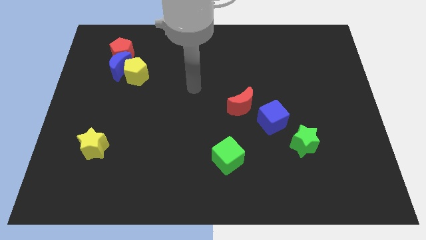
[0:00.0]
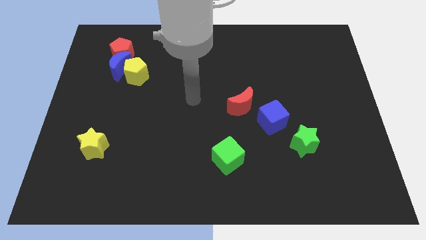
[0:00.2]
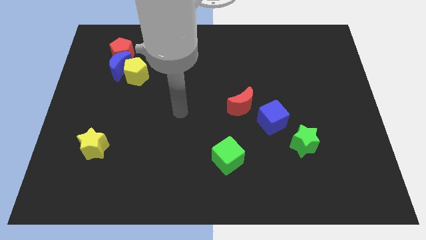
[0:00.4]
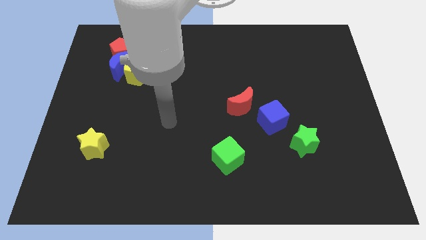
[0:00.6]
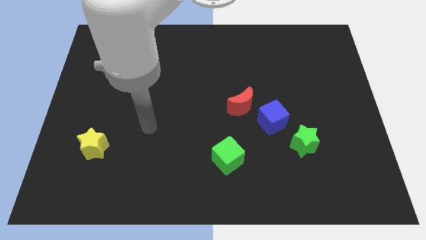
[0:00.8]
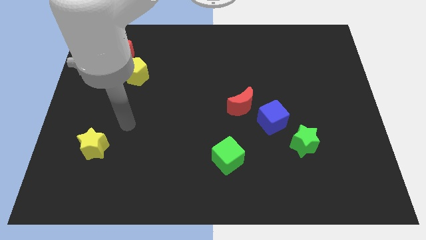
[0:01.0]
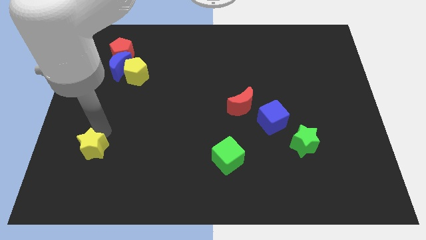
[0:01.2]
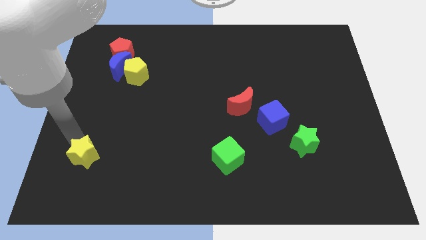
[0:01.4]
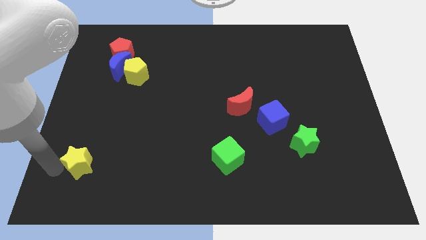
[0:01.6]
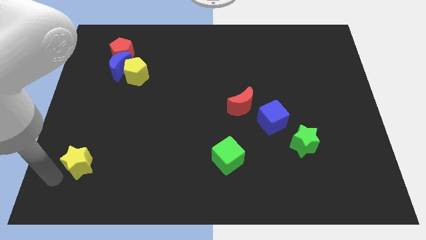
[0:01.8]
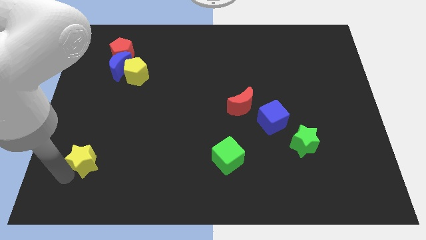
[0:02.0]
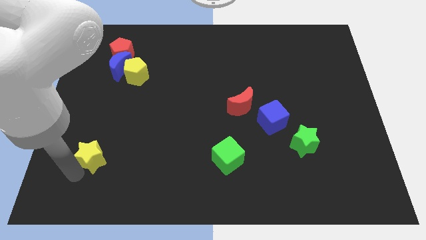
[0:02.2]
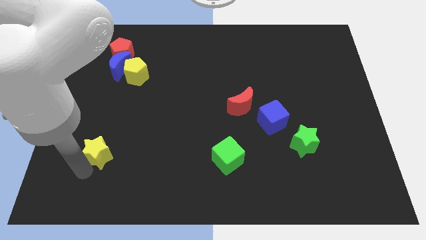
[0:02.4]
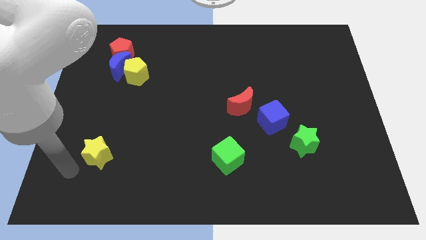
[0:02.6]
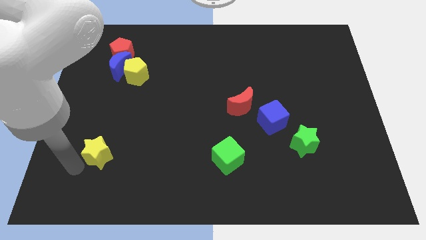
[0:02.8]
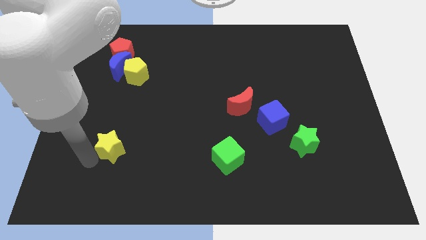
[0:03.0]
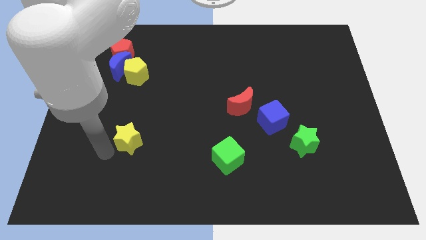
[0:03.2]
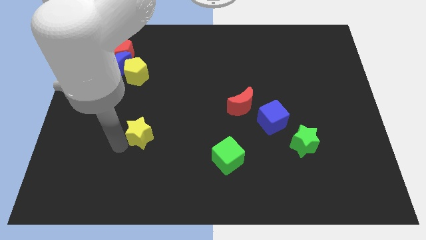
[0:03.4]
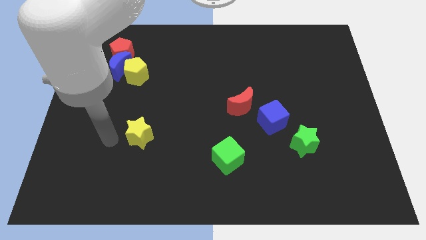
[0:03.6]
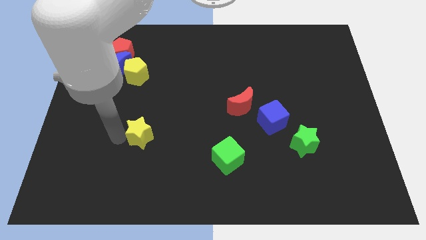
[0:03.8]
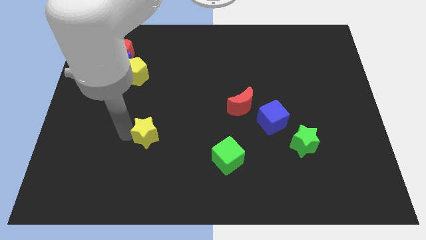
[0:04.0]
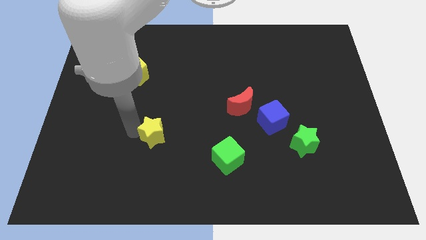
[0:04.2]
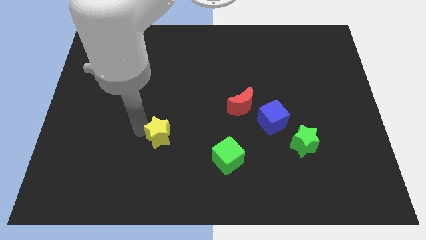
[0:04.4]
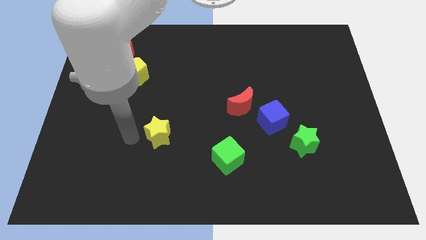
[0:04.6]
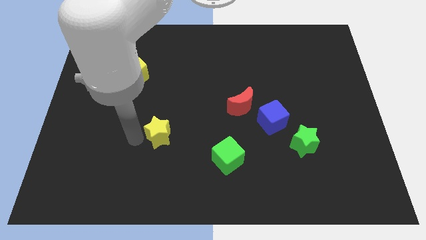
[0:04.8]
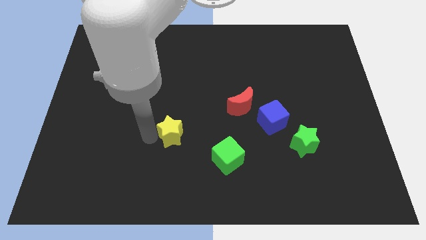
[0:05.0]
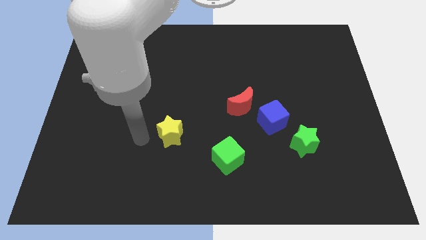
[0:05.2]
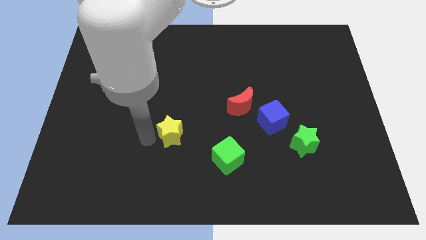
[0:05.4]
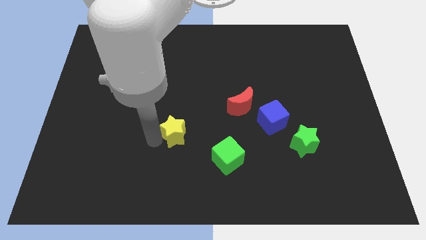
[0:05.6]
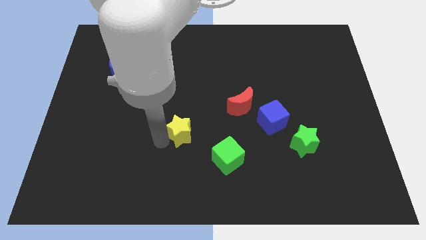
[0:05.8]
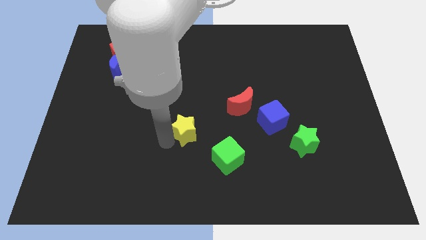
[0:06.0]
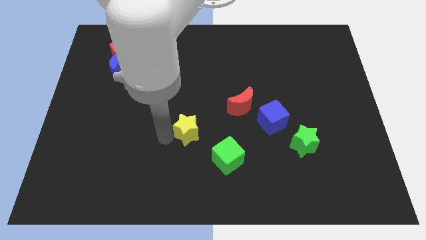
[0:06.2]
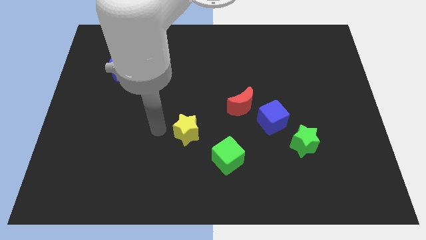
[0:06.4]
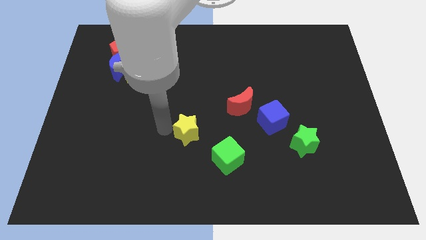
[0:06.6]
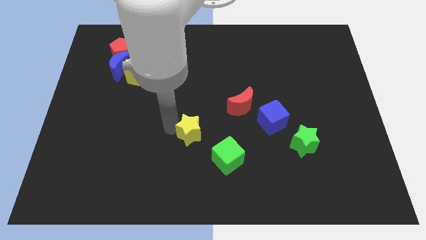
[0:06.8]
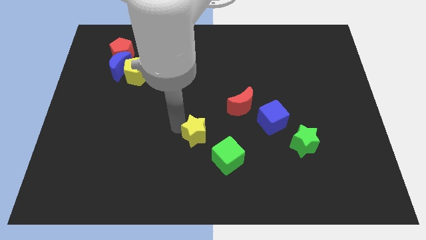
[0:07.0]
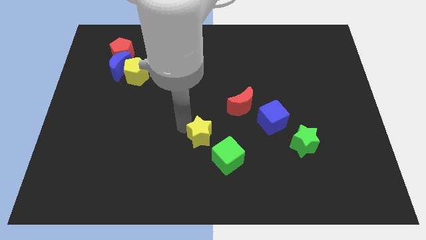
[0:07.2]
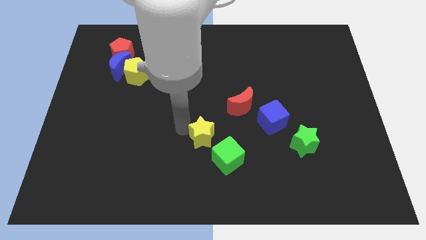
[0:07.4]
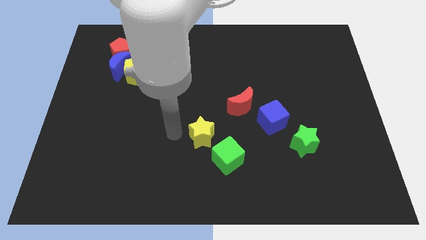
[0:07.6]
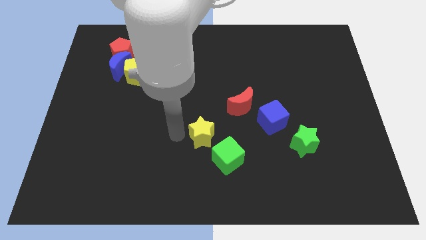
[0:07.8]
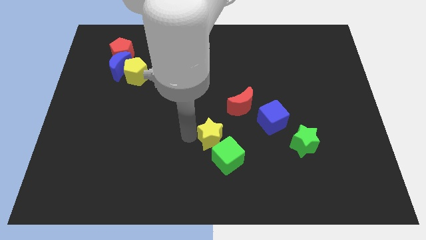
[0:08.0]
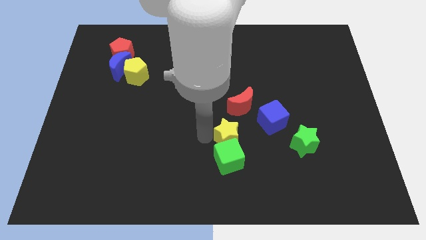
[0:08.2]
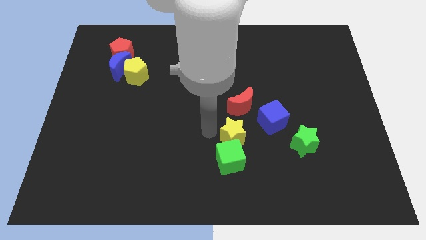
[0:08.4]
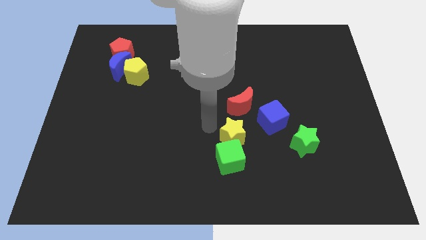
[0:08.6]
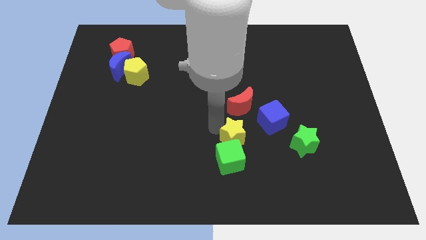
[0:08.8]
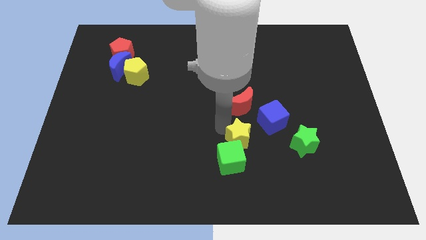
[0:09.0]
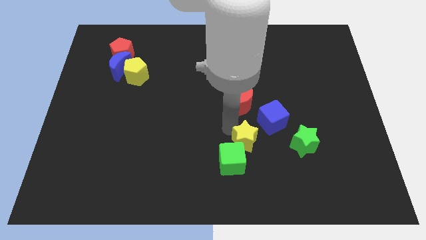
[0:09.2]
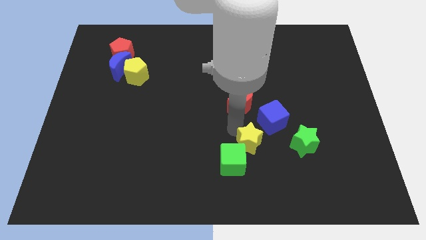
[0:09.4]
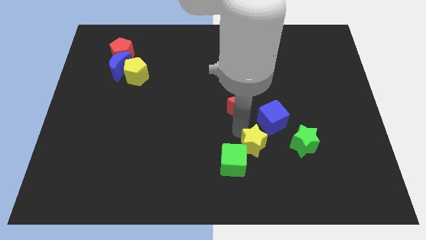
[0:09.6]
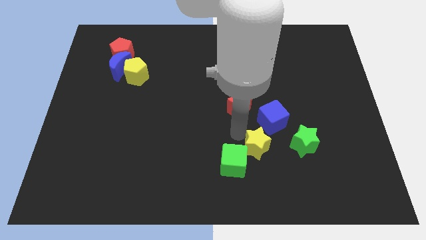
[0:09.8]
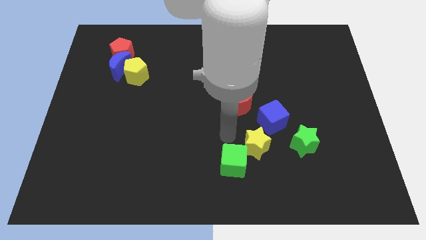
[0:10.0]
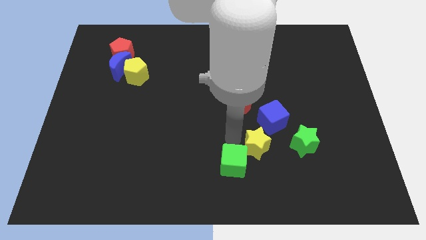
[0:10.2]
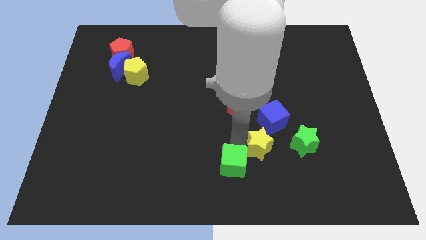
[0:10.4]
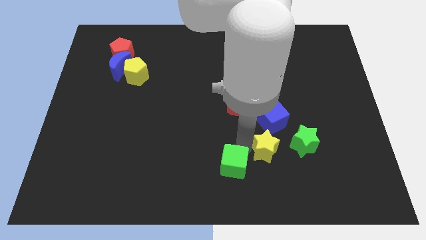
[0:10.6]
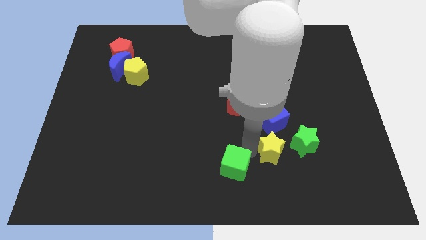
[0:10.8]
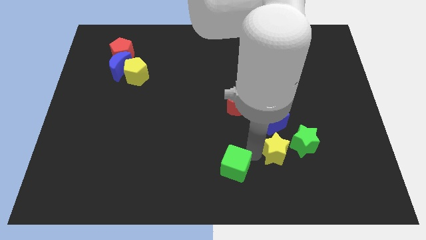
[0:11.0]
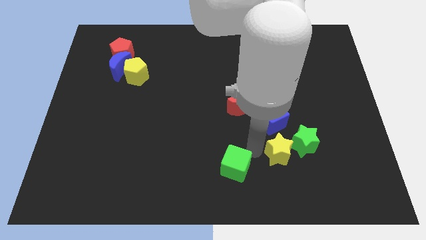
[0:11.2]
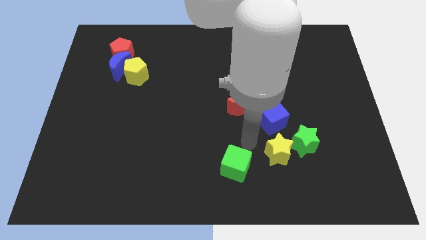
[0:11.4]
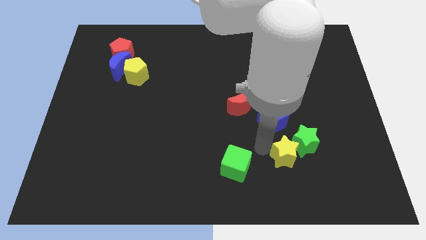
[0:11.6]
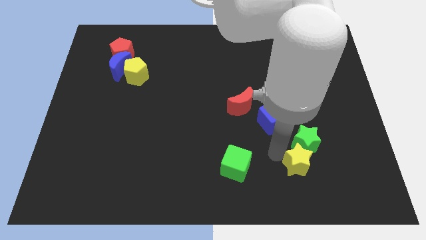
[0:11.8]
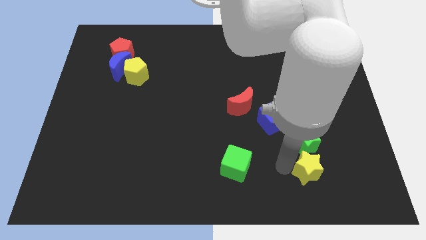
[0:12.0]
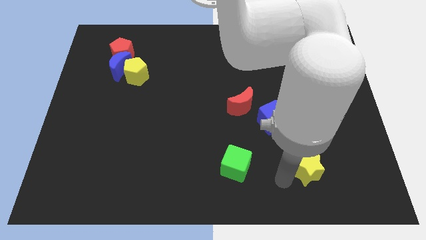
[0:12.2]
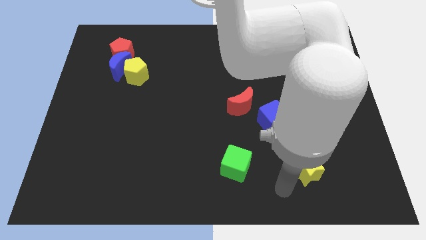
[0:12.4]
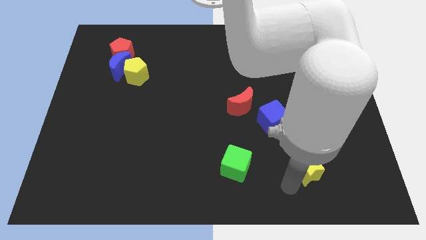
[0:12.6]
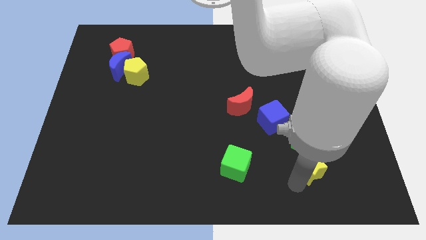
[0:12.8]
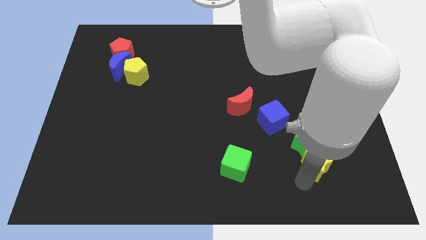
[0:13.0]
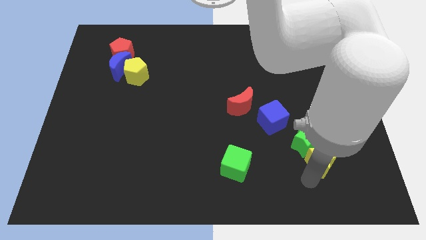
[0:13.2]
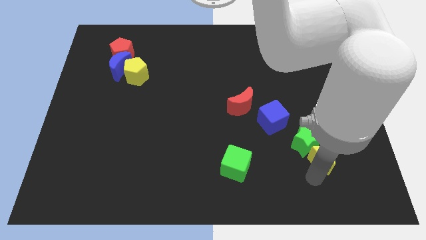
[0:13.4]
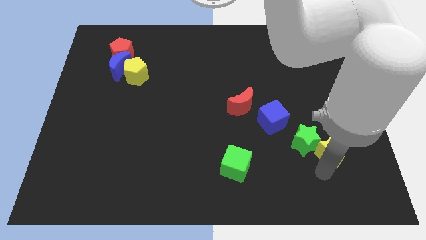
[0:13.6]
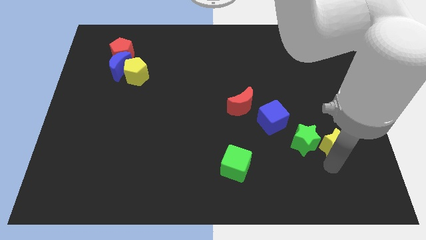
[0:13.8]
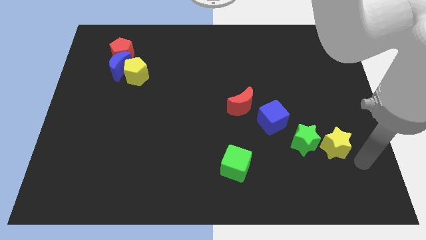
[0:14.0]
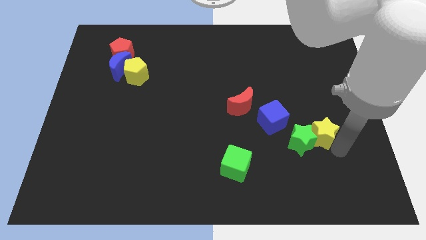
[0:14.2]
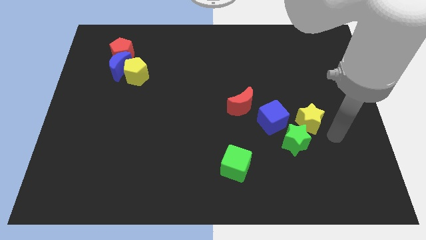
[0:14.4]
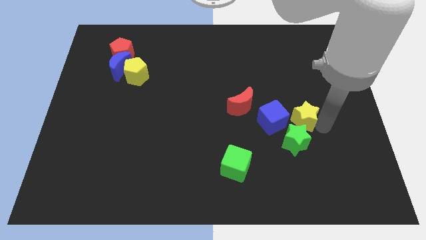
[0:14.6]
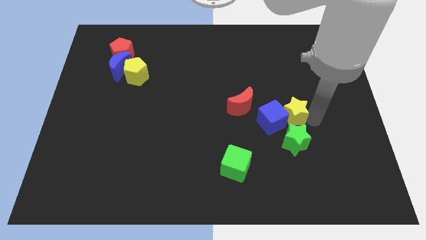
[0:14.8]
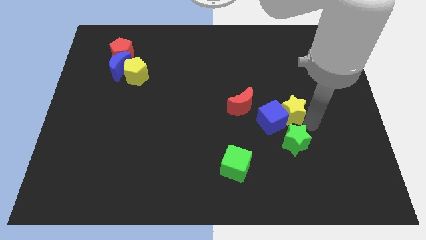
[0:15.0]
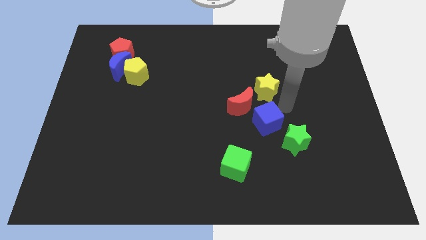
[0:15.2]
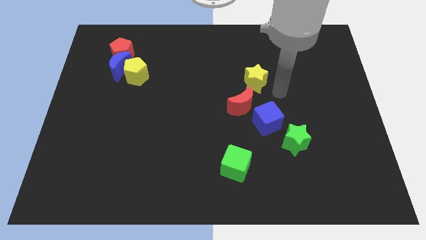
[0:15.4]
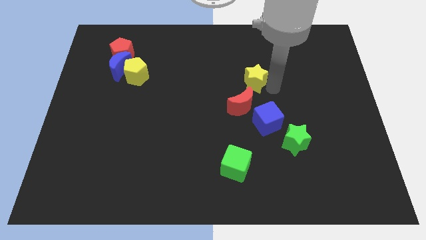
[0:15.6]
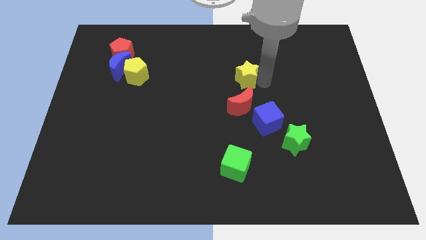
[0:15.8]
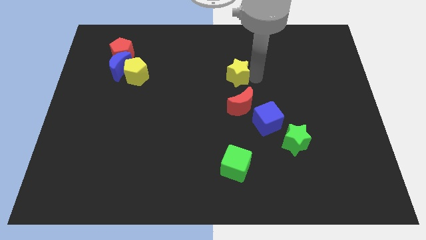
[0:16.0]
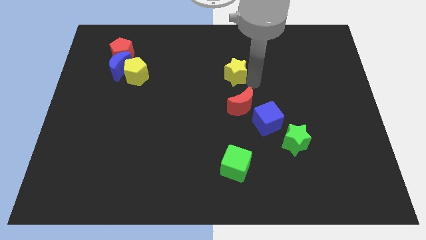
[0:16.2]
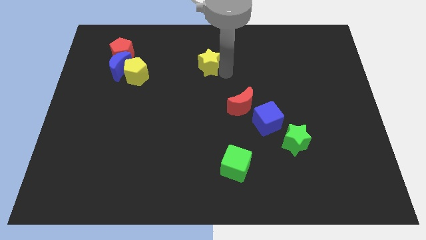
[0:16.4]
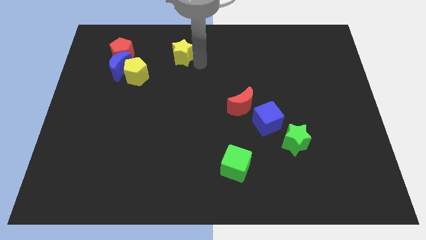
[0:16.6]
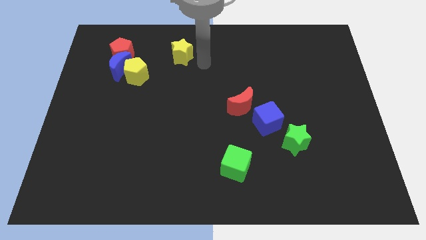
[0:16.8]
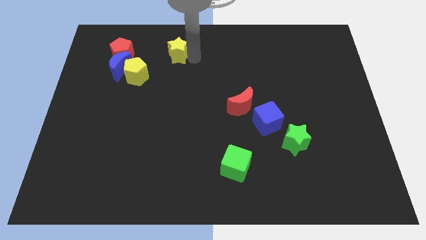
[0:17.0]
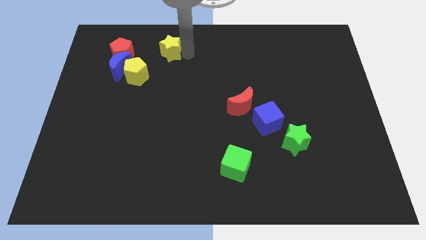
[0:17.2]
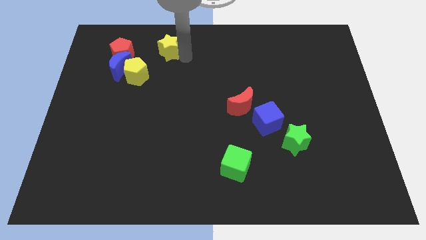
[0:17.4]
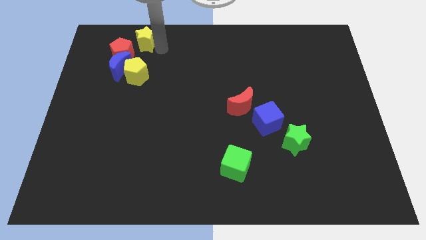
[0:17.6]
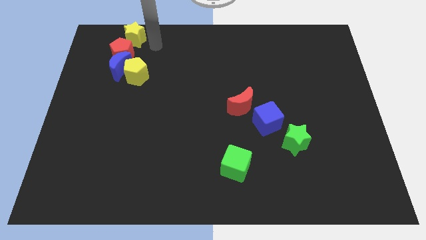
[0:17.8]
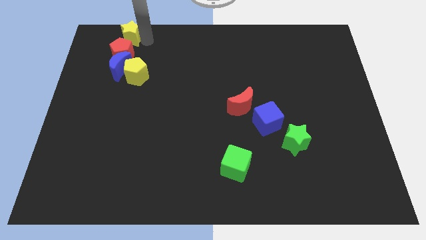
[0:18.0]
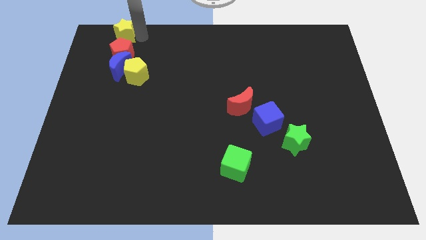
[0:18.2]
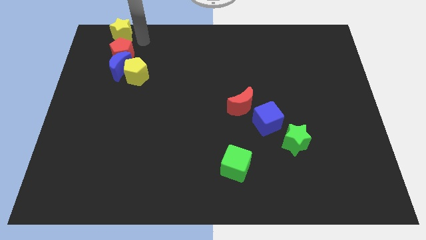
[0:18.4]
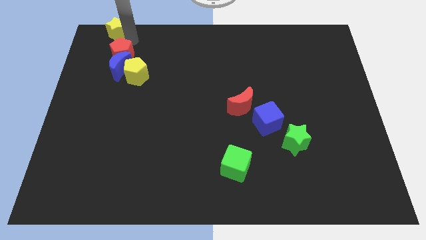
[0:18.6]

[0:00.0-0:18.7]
slide the yellow star to the upper left corner
